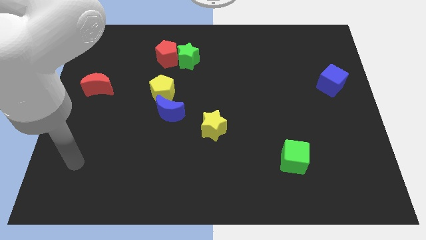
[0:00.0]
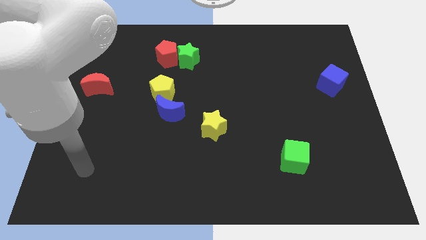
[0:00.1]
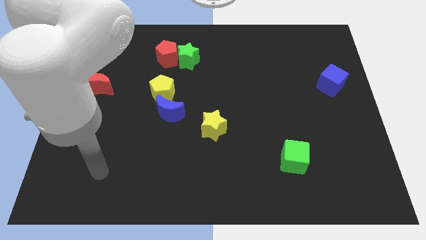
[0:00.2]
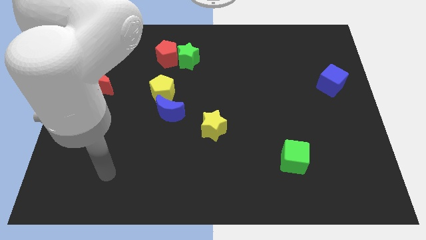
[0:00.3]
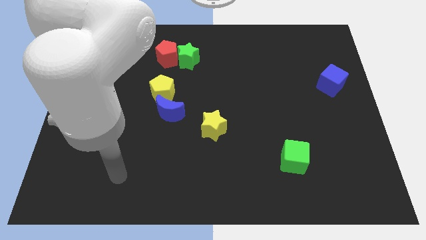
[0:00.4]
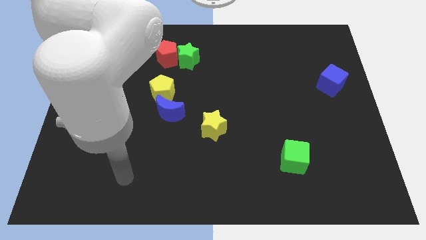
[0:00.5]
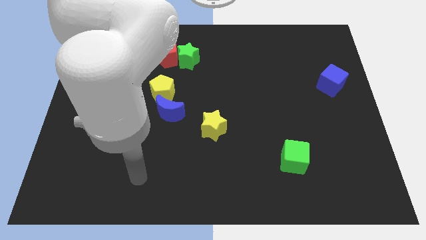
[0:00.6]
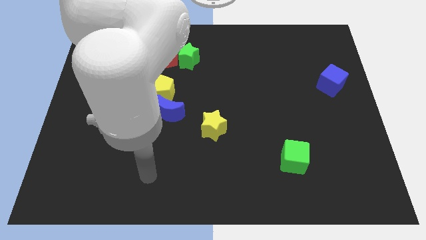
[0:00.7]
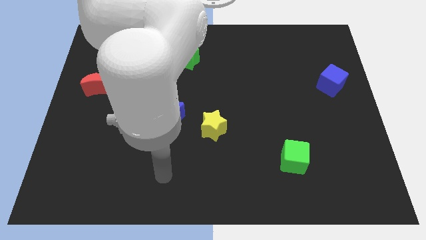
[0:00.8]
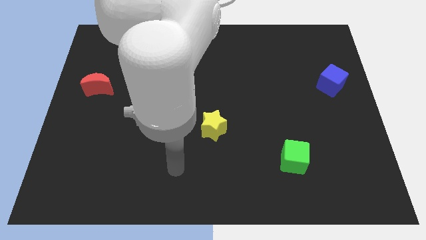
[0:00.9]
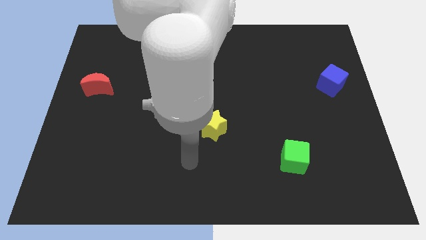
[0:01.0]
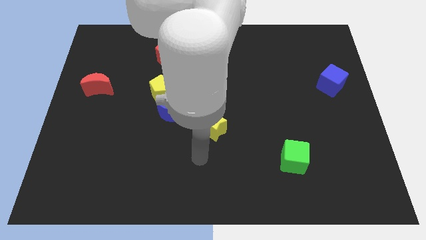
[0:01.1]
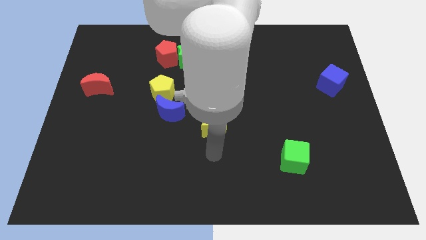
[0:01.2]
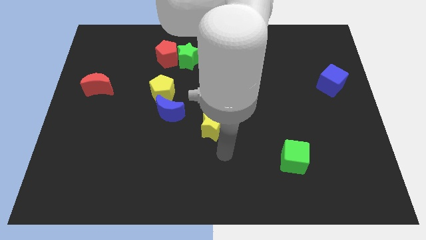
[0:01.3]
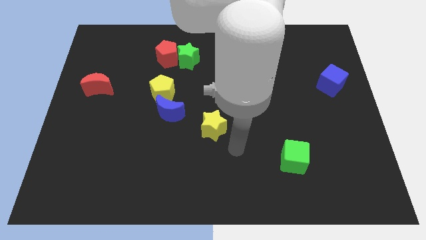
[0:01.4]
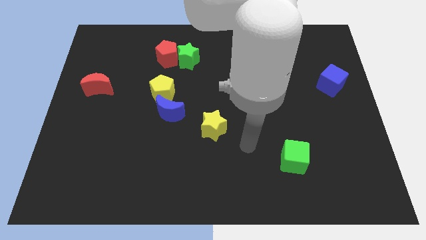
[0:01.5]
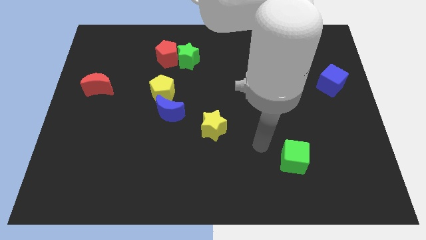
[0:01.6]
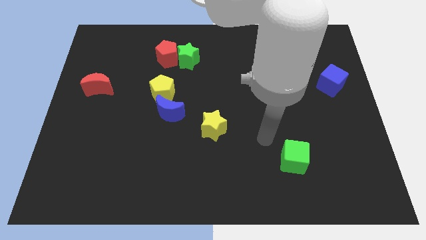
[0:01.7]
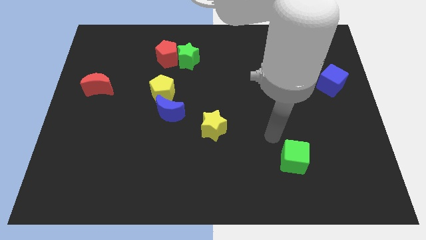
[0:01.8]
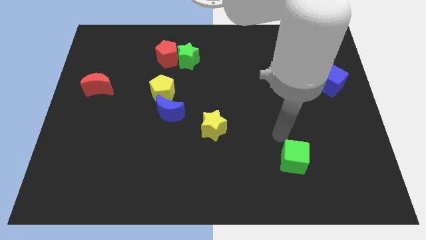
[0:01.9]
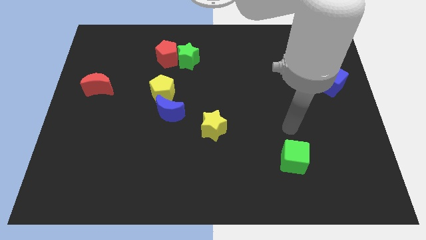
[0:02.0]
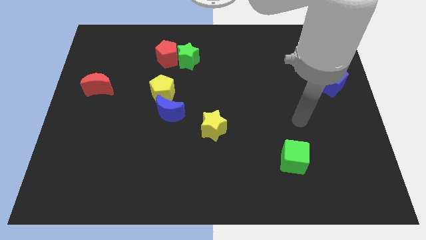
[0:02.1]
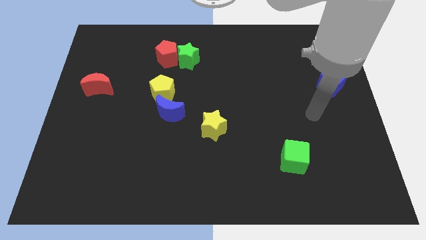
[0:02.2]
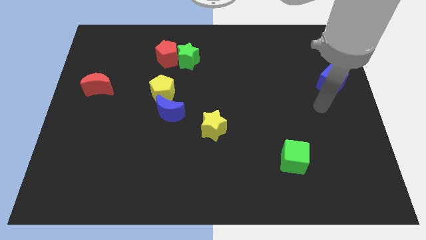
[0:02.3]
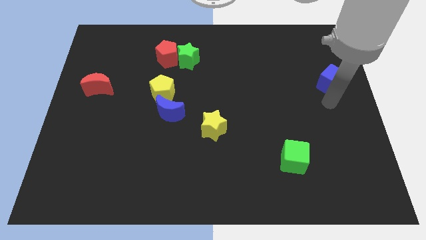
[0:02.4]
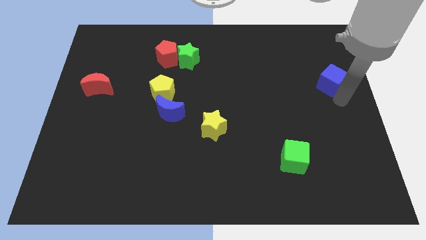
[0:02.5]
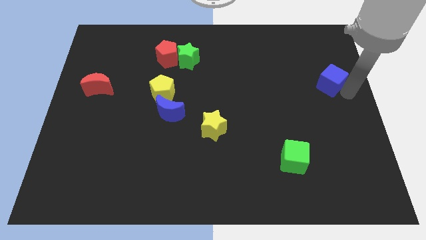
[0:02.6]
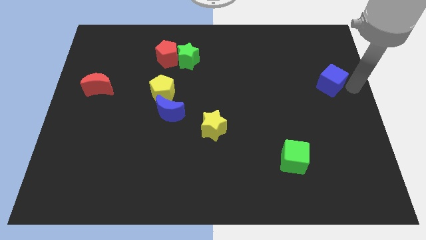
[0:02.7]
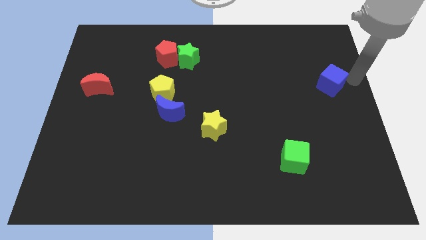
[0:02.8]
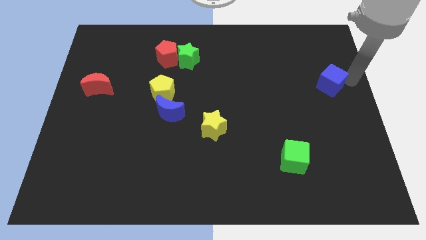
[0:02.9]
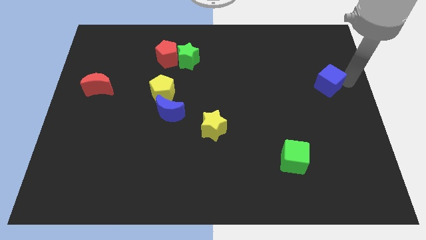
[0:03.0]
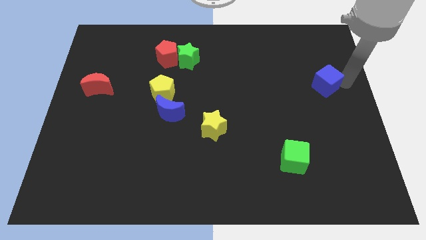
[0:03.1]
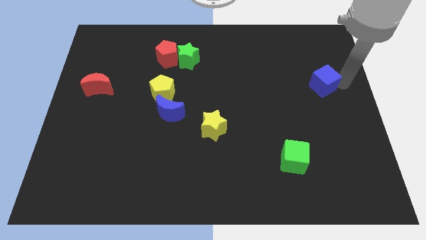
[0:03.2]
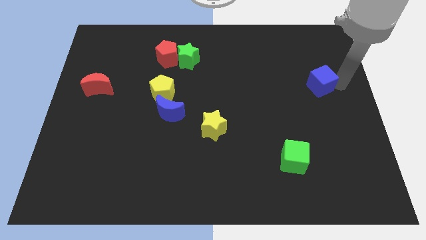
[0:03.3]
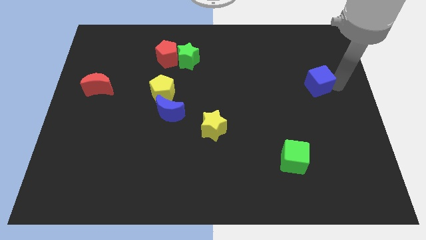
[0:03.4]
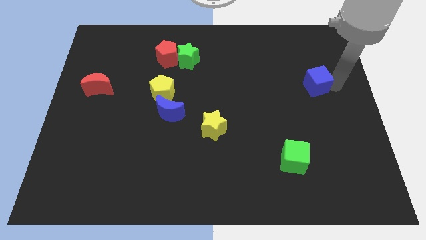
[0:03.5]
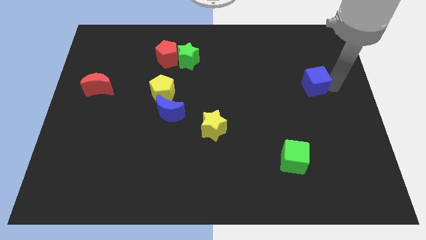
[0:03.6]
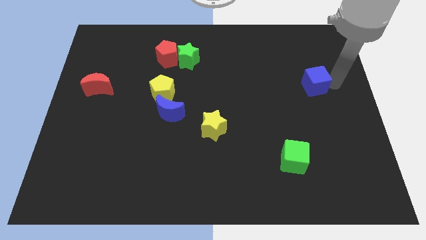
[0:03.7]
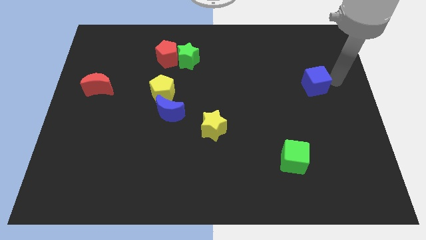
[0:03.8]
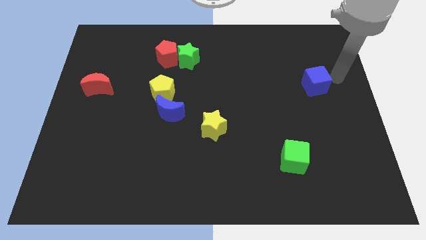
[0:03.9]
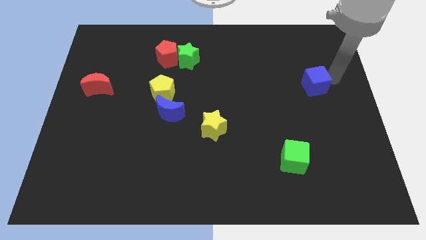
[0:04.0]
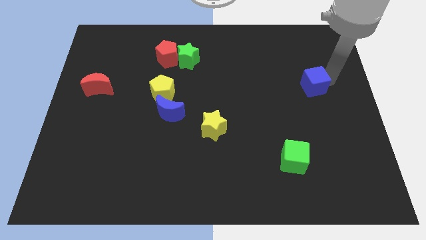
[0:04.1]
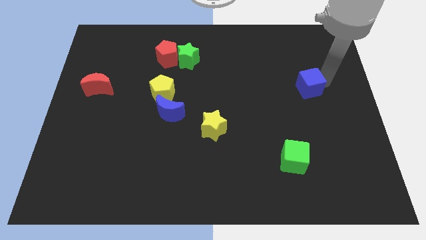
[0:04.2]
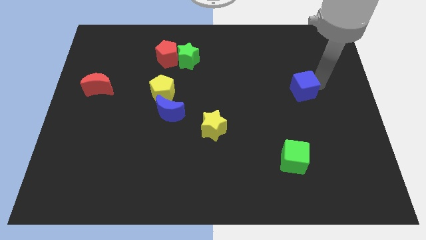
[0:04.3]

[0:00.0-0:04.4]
slightly slide the blue cube to the left

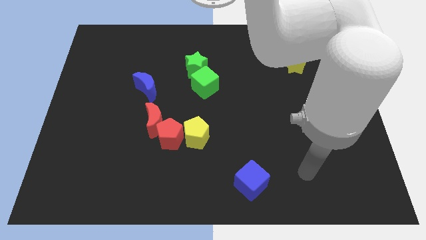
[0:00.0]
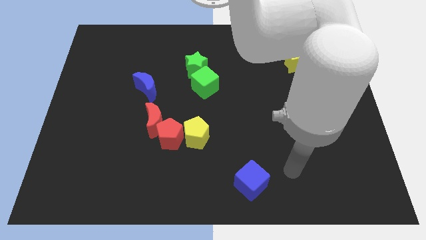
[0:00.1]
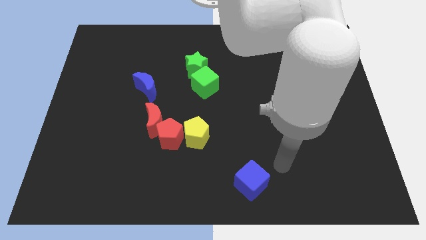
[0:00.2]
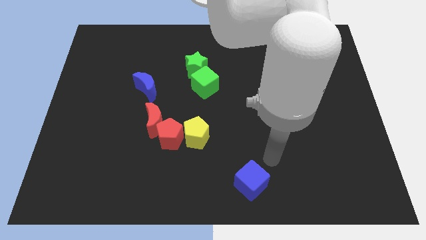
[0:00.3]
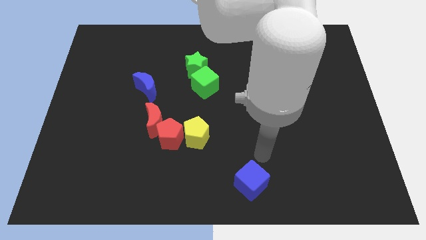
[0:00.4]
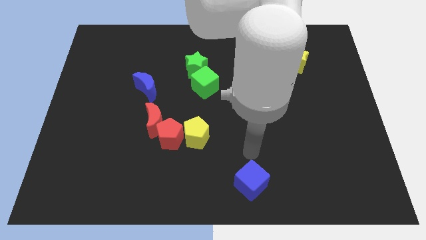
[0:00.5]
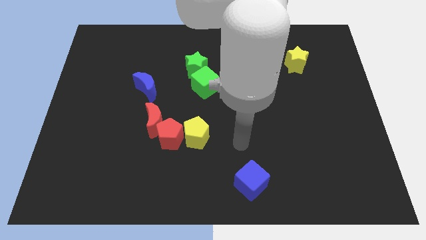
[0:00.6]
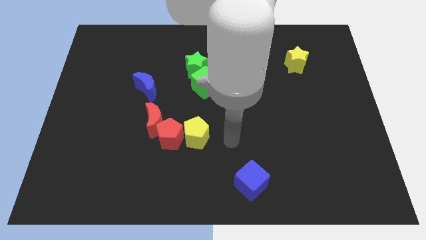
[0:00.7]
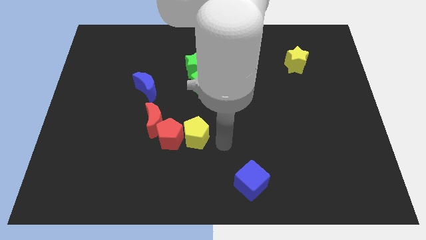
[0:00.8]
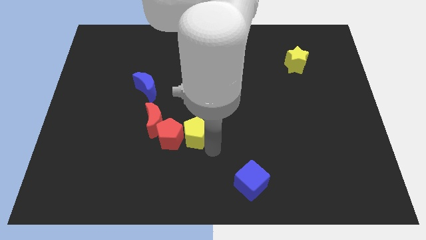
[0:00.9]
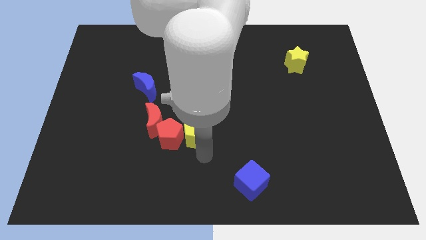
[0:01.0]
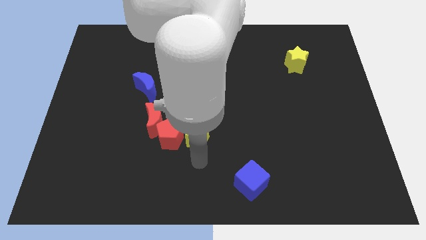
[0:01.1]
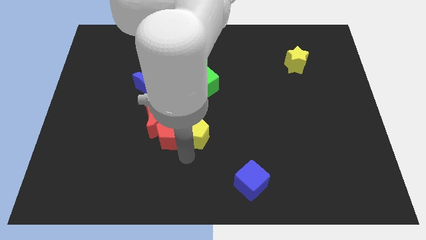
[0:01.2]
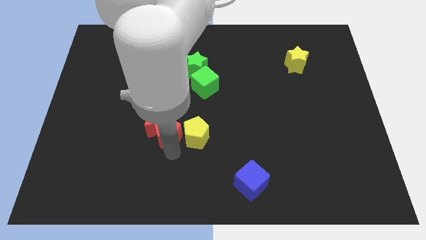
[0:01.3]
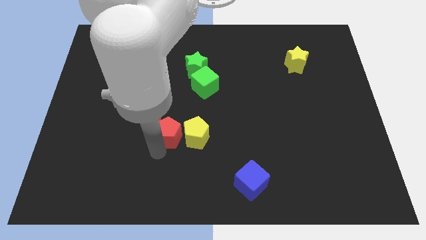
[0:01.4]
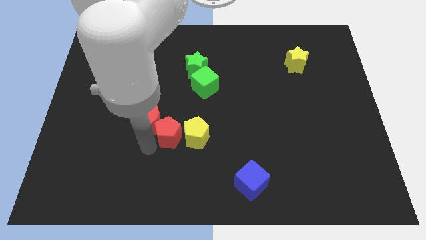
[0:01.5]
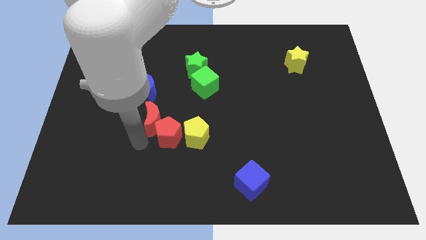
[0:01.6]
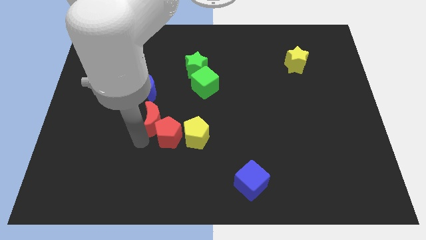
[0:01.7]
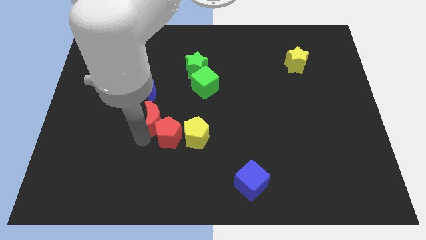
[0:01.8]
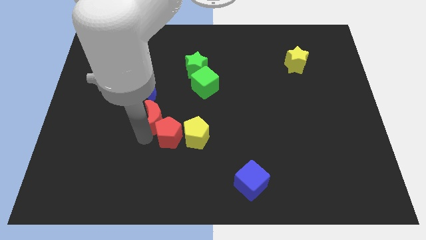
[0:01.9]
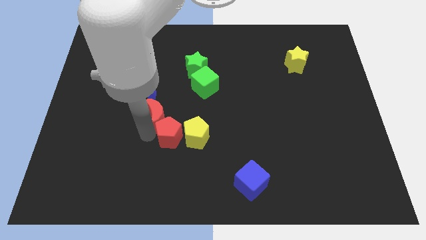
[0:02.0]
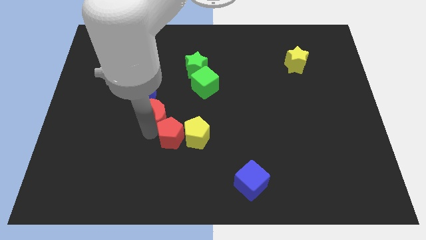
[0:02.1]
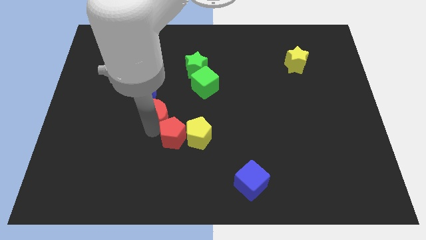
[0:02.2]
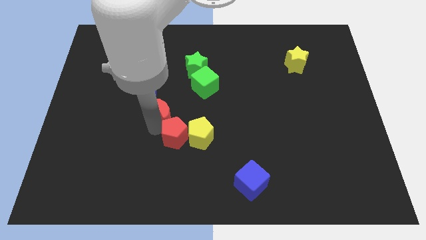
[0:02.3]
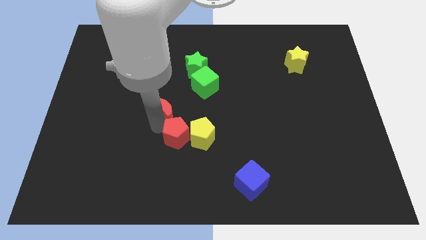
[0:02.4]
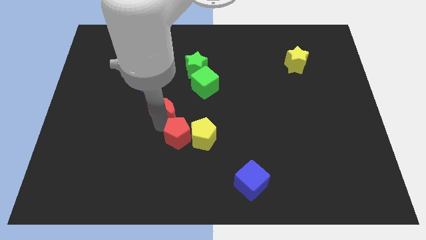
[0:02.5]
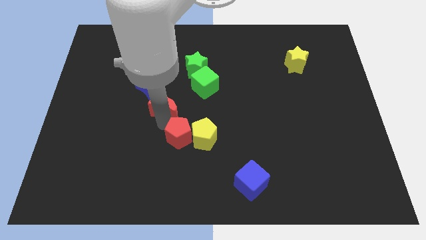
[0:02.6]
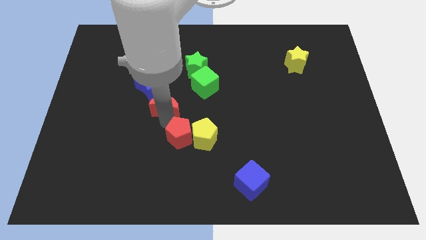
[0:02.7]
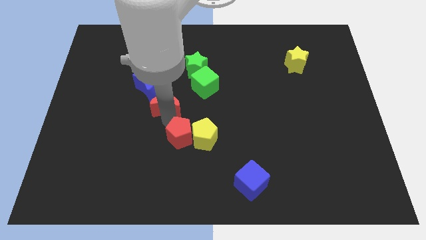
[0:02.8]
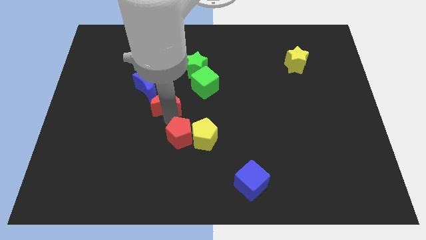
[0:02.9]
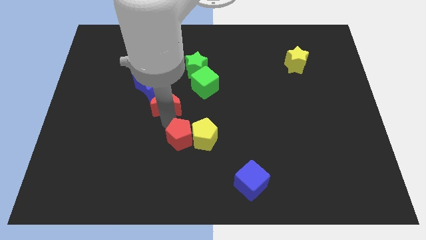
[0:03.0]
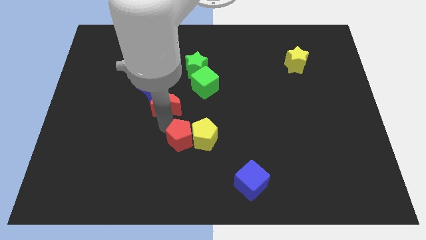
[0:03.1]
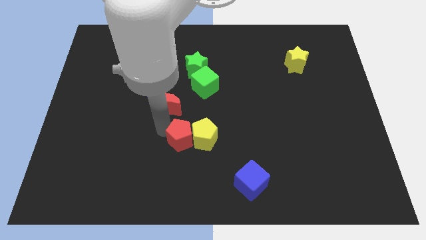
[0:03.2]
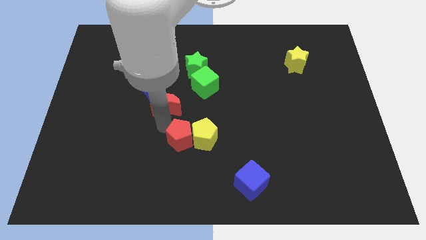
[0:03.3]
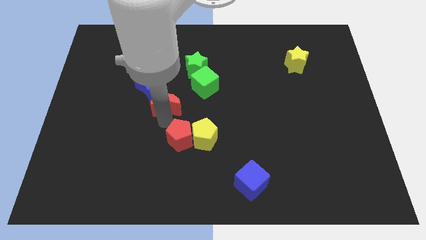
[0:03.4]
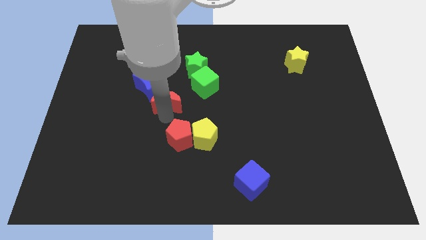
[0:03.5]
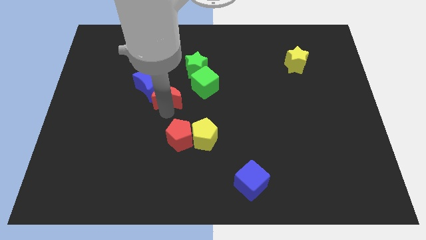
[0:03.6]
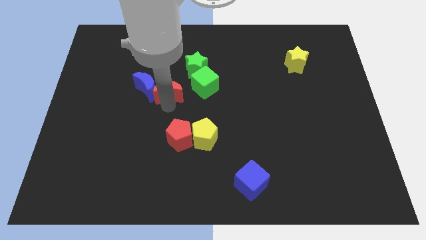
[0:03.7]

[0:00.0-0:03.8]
slightly push the red moon upwards
